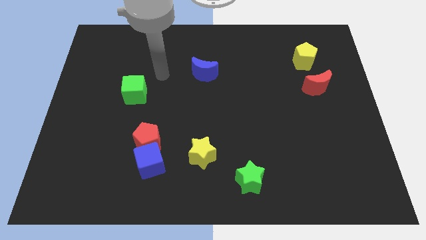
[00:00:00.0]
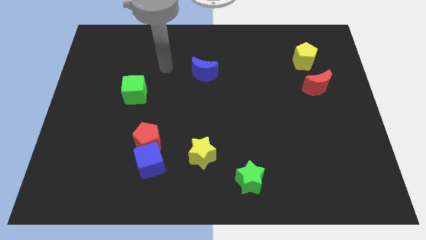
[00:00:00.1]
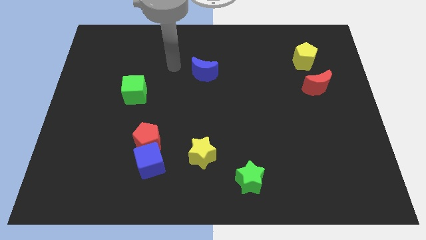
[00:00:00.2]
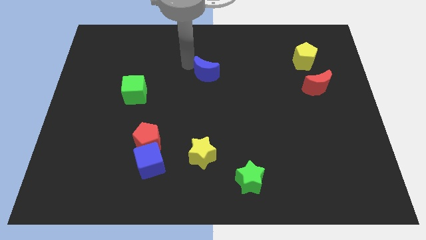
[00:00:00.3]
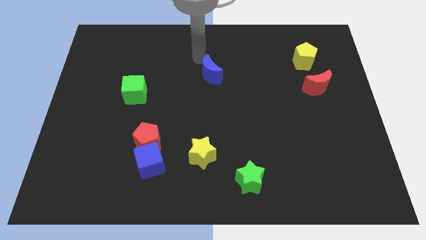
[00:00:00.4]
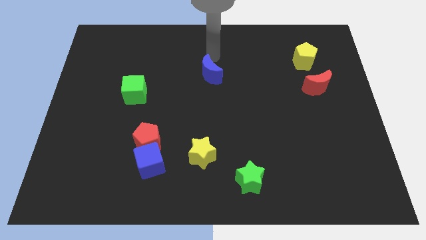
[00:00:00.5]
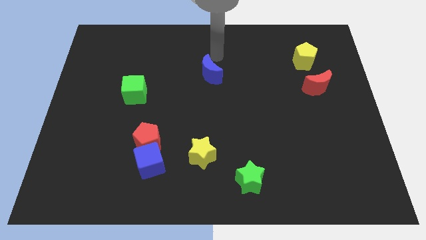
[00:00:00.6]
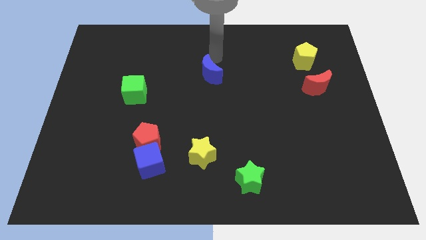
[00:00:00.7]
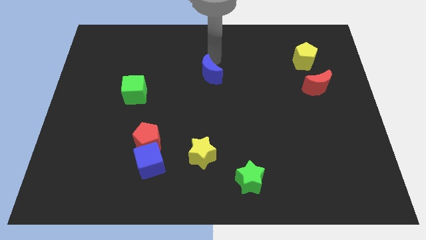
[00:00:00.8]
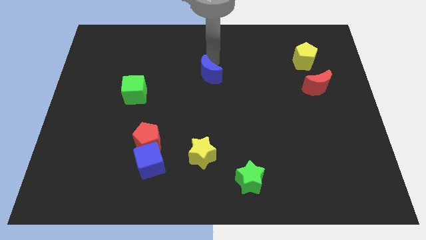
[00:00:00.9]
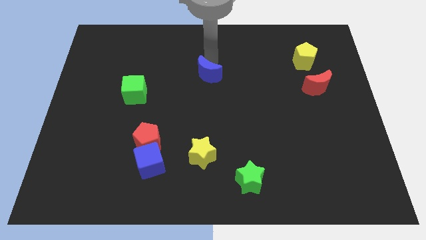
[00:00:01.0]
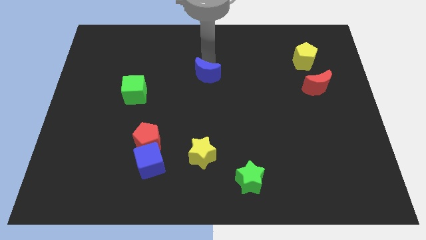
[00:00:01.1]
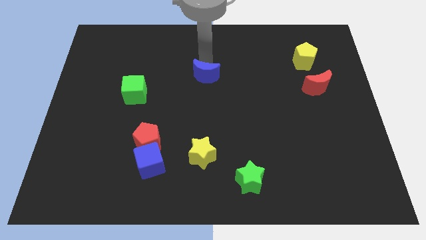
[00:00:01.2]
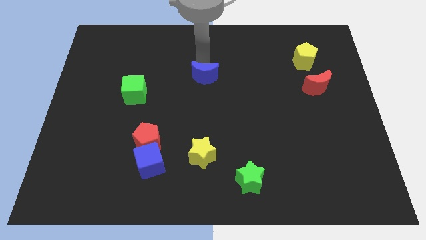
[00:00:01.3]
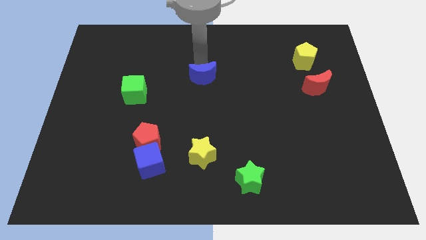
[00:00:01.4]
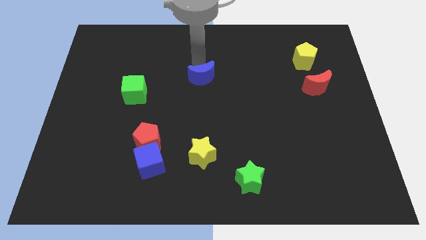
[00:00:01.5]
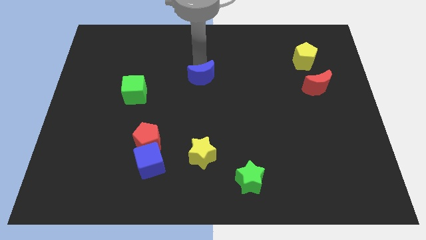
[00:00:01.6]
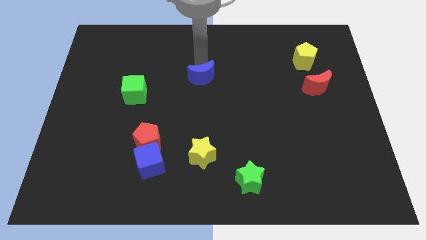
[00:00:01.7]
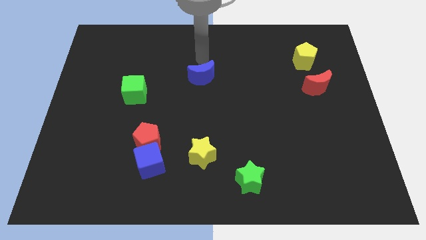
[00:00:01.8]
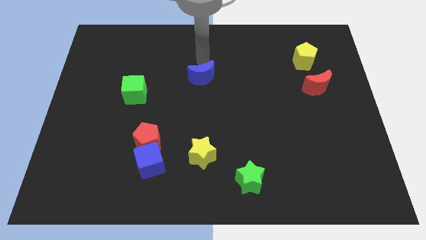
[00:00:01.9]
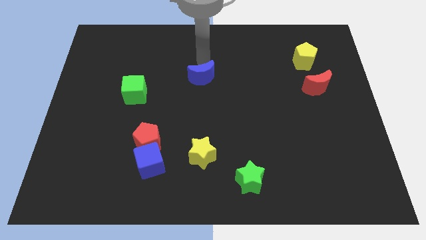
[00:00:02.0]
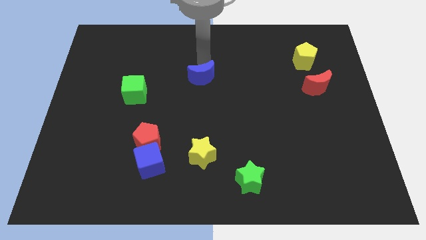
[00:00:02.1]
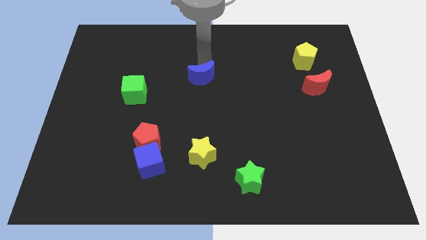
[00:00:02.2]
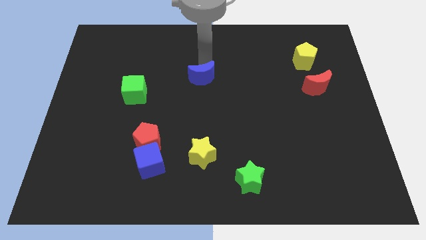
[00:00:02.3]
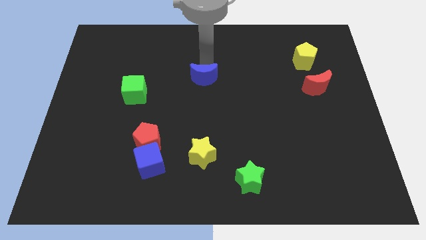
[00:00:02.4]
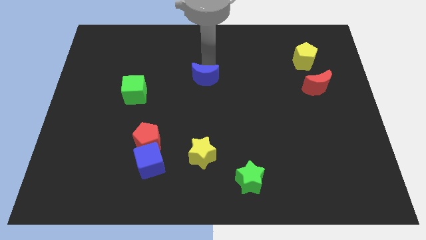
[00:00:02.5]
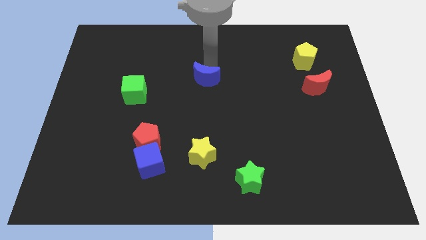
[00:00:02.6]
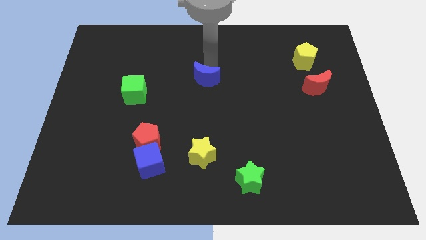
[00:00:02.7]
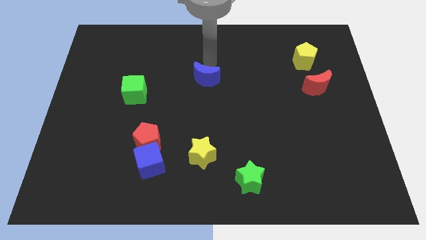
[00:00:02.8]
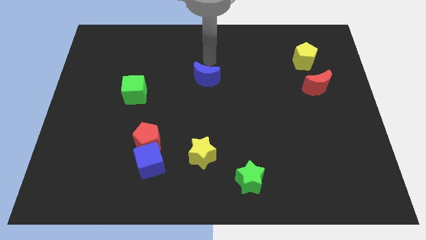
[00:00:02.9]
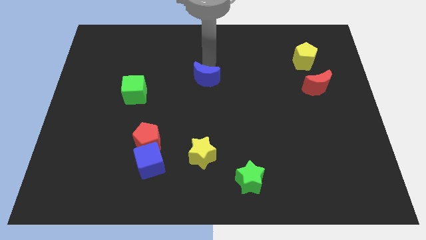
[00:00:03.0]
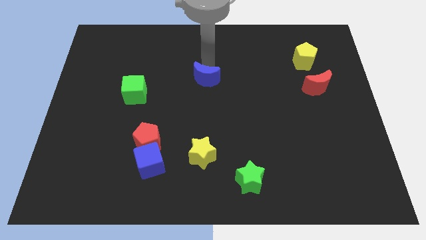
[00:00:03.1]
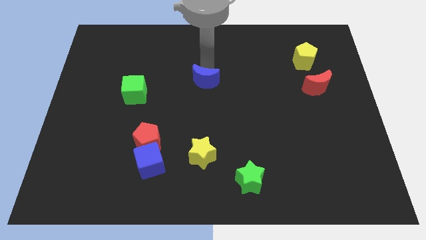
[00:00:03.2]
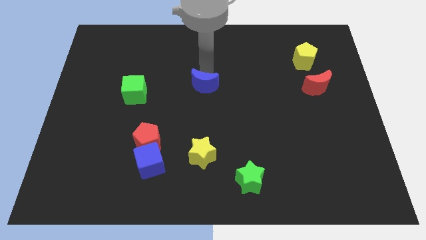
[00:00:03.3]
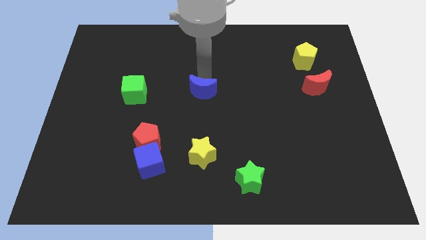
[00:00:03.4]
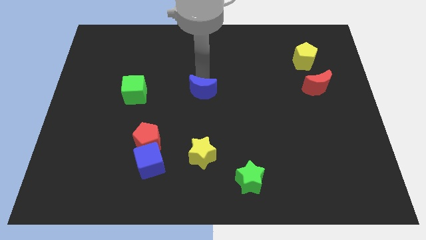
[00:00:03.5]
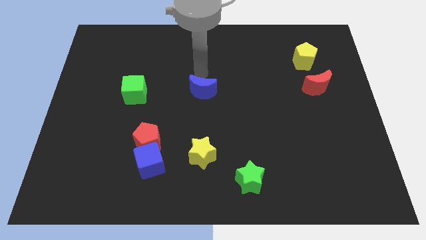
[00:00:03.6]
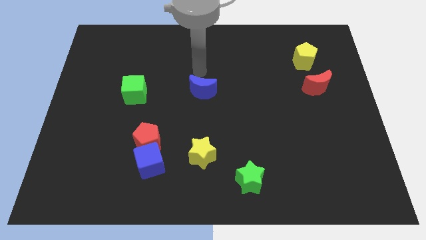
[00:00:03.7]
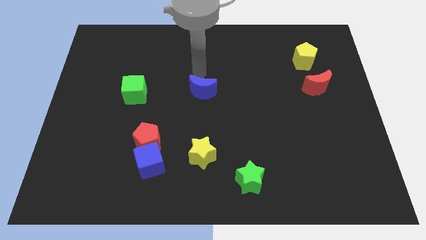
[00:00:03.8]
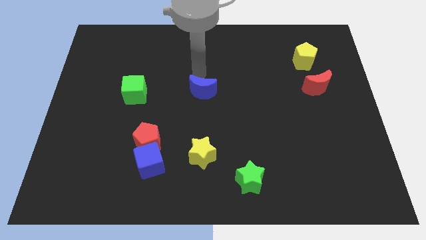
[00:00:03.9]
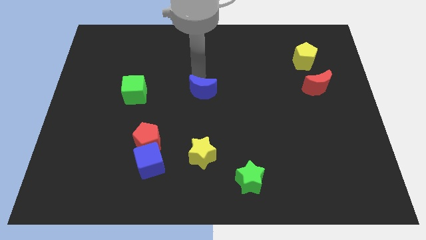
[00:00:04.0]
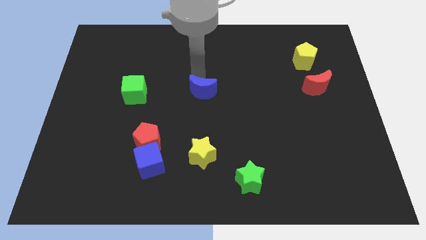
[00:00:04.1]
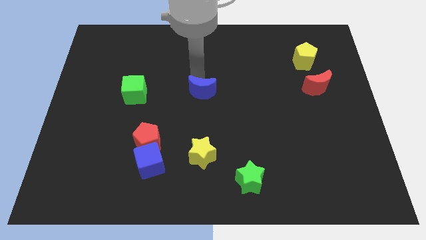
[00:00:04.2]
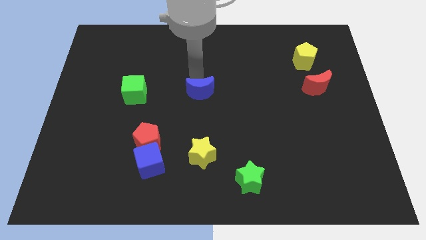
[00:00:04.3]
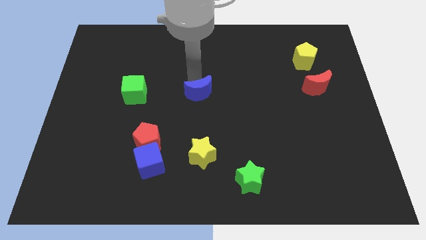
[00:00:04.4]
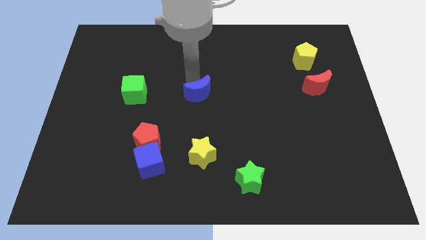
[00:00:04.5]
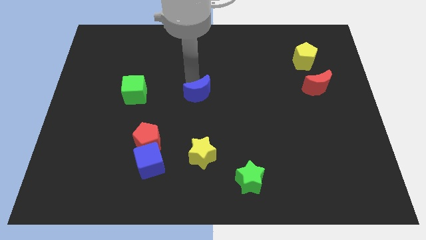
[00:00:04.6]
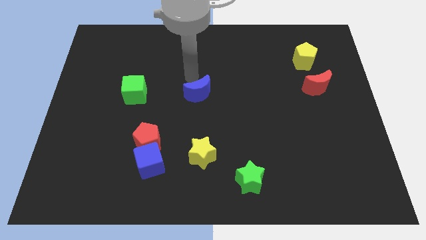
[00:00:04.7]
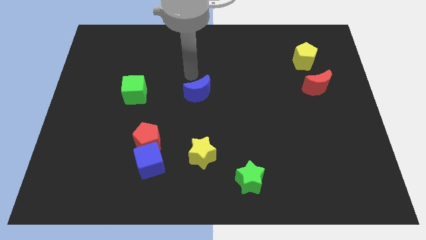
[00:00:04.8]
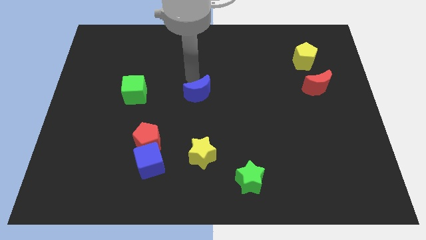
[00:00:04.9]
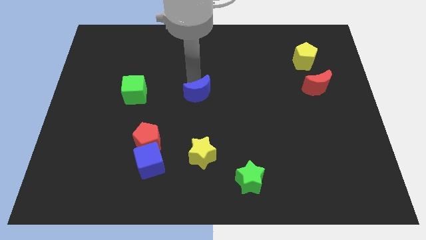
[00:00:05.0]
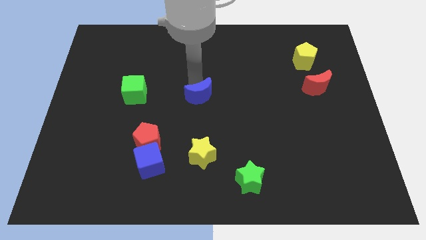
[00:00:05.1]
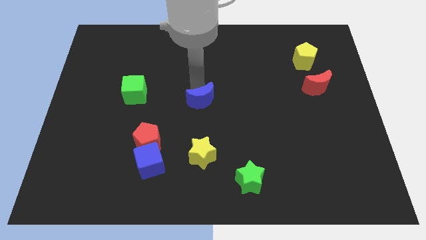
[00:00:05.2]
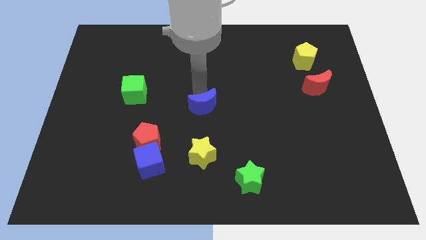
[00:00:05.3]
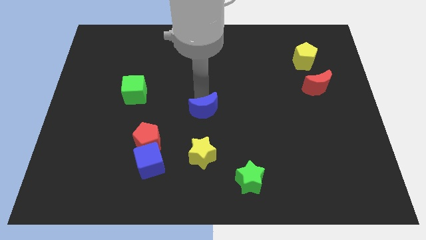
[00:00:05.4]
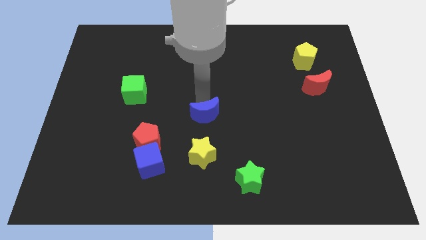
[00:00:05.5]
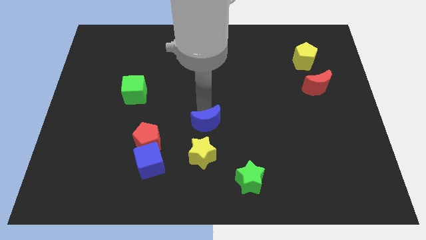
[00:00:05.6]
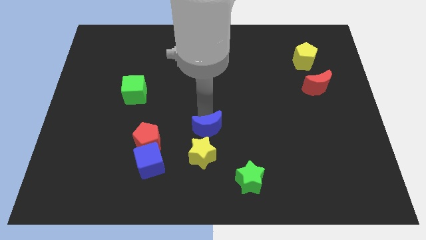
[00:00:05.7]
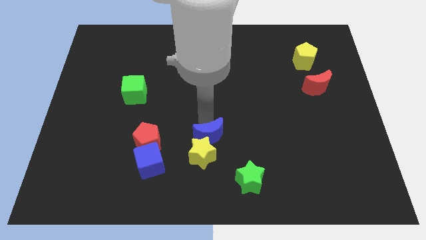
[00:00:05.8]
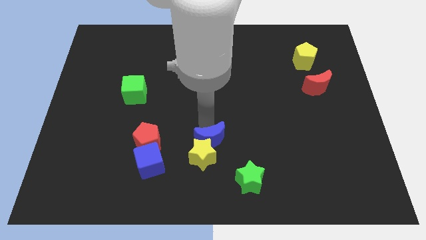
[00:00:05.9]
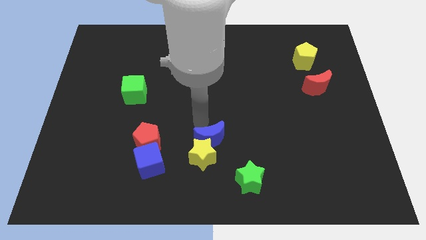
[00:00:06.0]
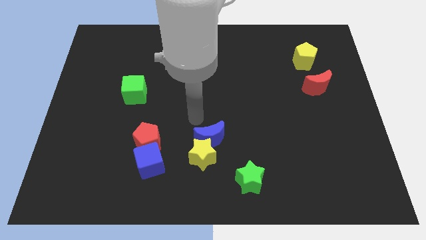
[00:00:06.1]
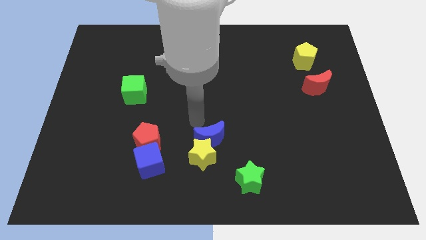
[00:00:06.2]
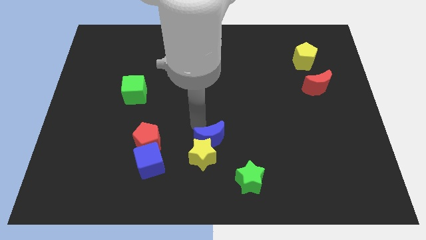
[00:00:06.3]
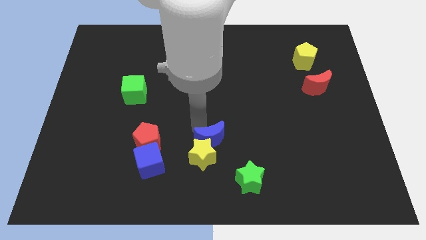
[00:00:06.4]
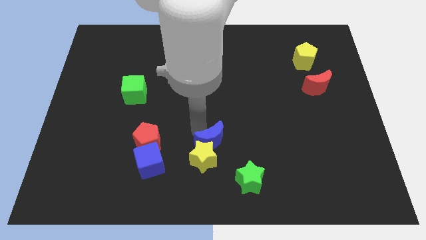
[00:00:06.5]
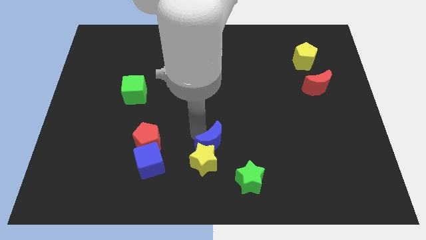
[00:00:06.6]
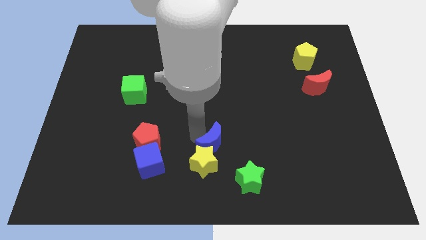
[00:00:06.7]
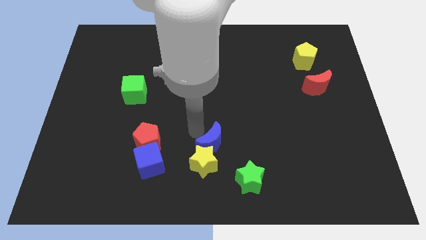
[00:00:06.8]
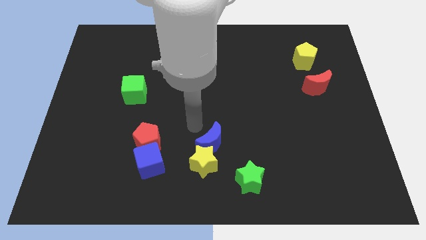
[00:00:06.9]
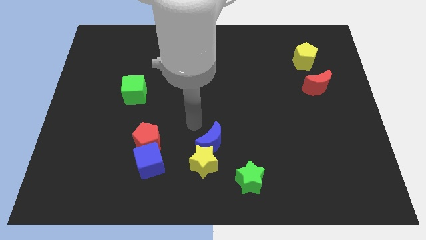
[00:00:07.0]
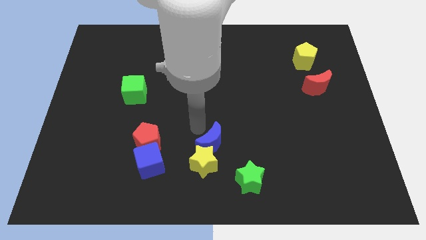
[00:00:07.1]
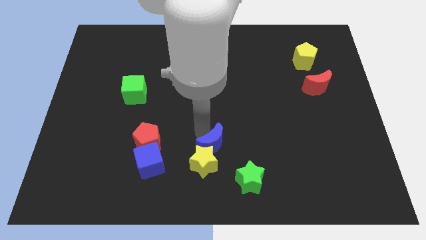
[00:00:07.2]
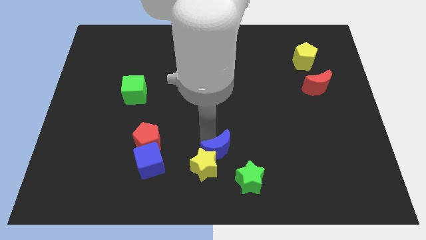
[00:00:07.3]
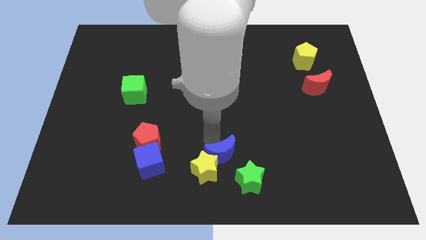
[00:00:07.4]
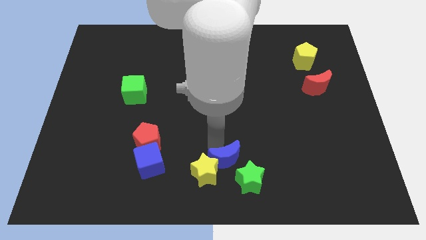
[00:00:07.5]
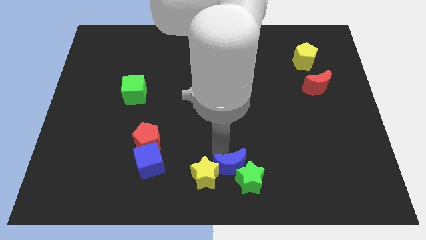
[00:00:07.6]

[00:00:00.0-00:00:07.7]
slide the blue moon to the green star
